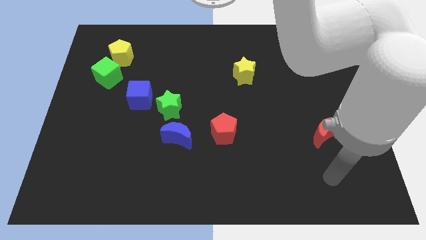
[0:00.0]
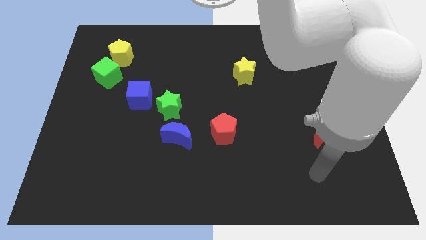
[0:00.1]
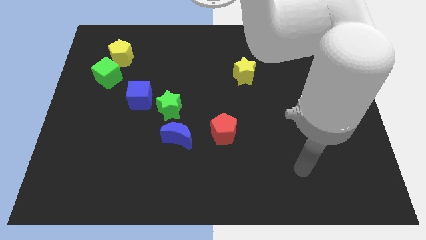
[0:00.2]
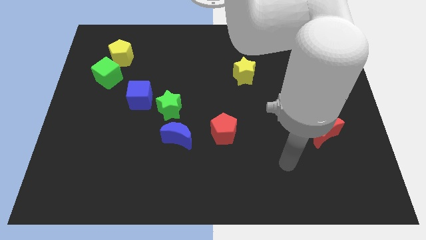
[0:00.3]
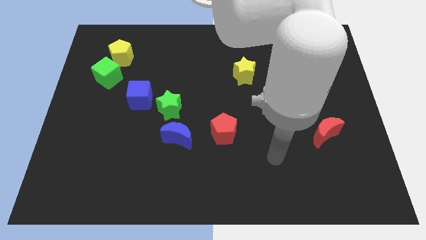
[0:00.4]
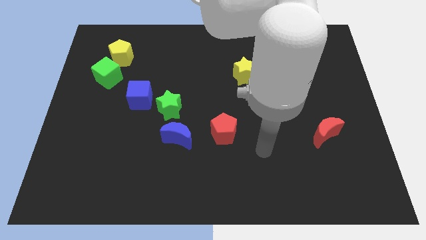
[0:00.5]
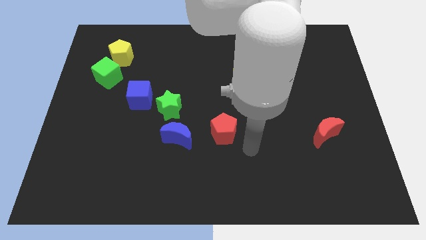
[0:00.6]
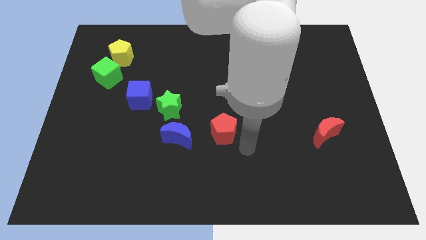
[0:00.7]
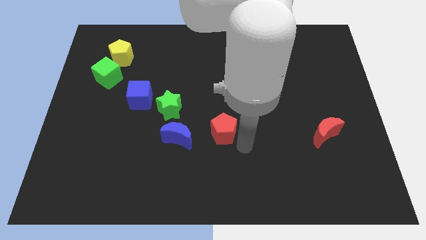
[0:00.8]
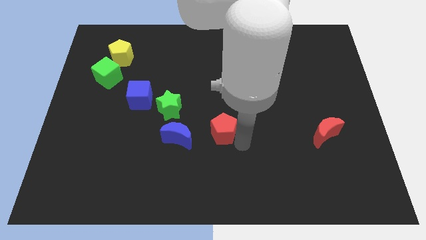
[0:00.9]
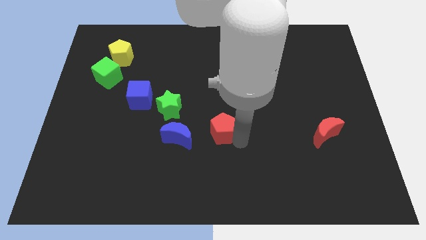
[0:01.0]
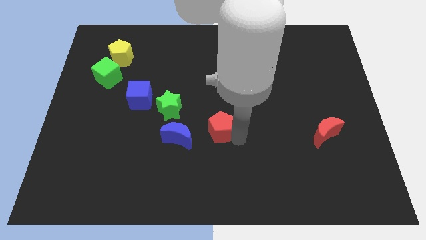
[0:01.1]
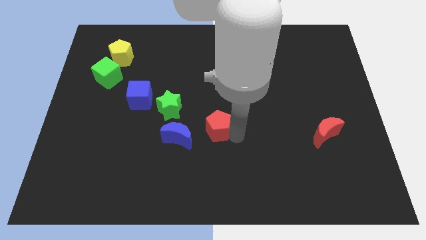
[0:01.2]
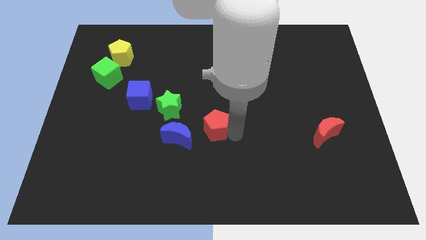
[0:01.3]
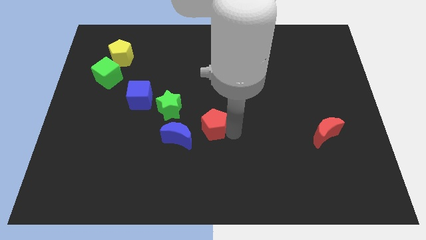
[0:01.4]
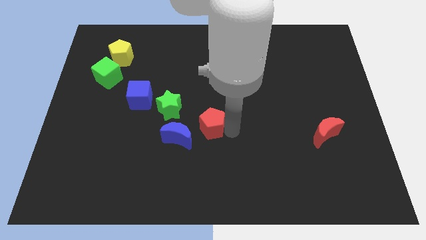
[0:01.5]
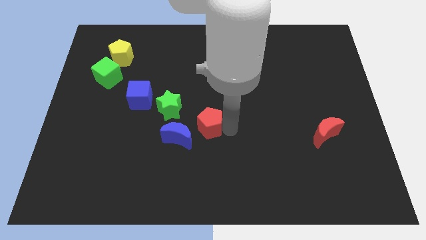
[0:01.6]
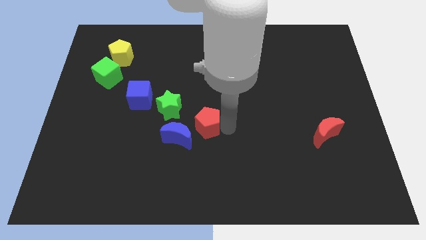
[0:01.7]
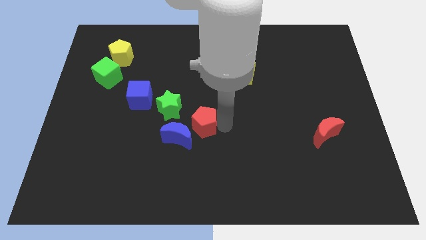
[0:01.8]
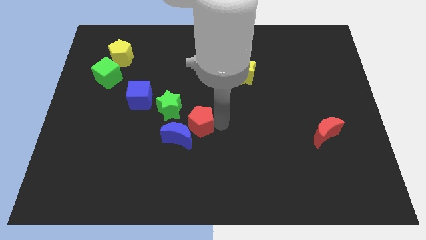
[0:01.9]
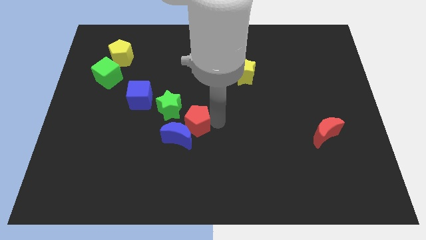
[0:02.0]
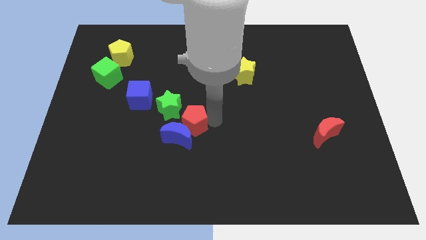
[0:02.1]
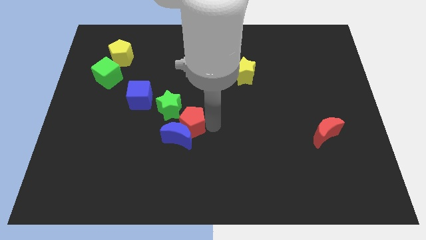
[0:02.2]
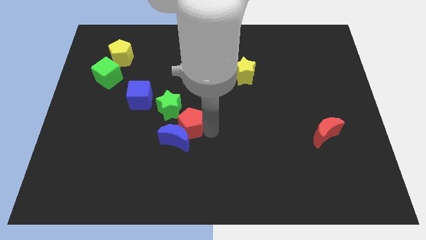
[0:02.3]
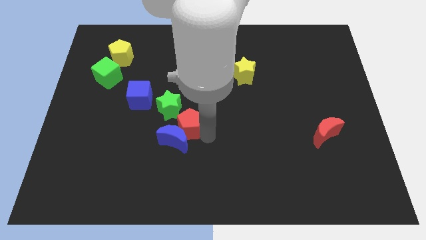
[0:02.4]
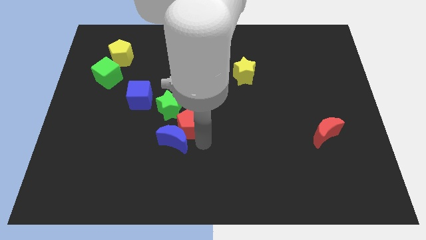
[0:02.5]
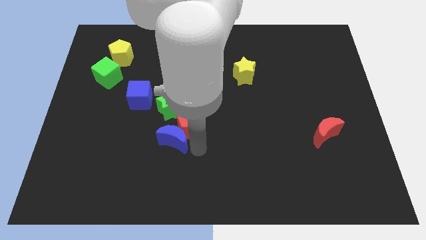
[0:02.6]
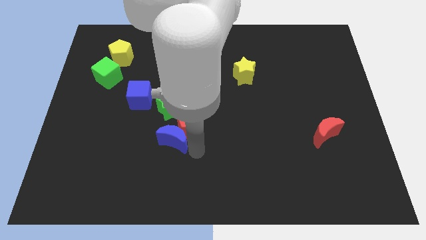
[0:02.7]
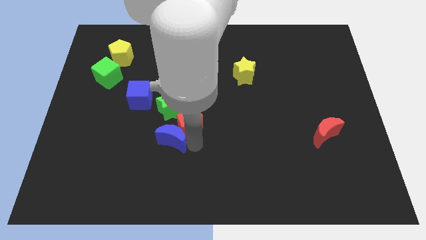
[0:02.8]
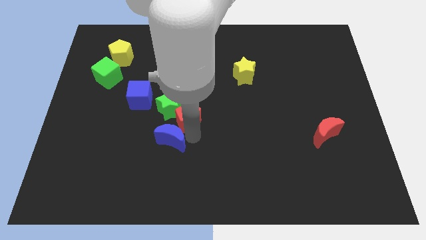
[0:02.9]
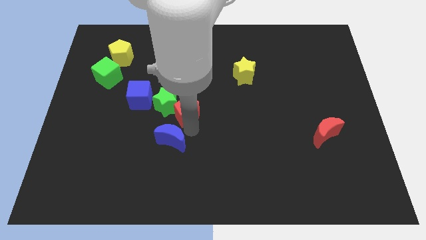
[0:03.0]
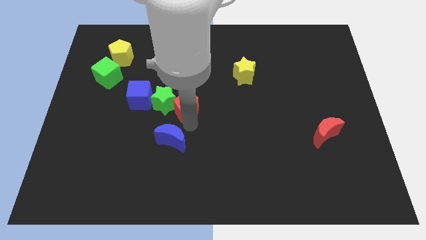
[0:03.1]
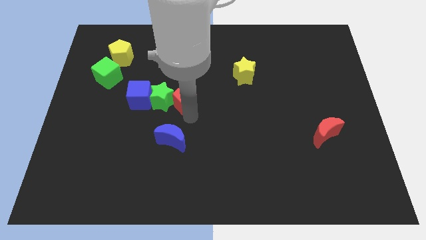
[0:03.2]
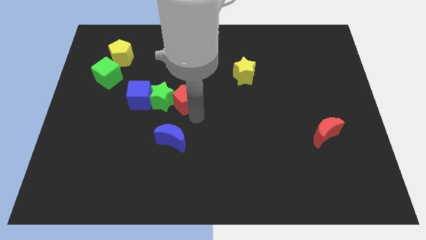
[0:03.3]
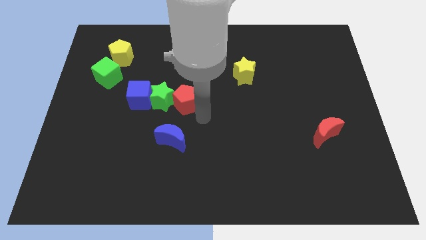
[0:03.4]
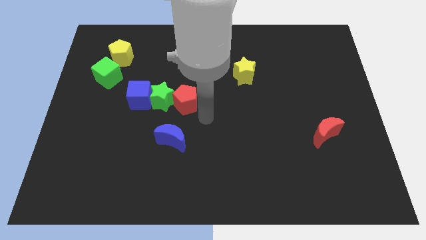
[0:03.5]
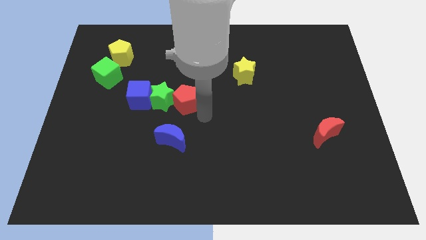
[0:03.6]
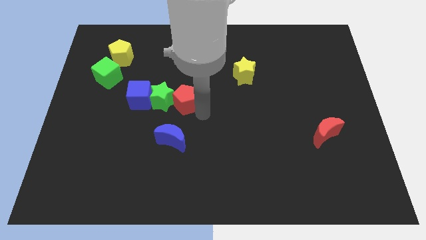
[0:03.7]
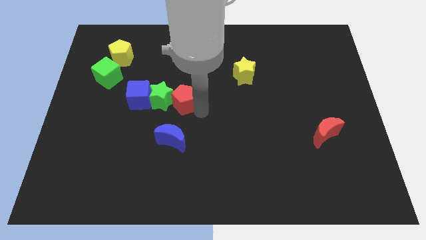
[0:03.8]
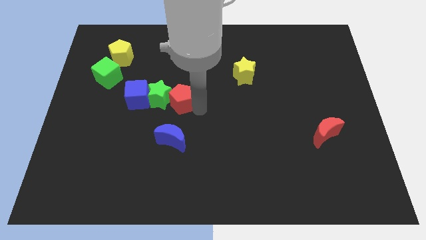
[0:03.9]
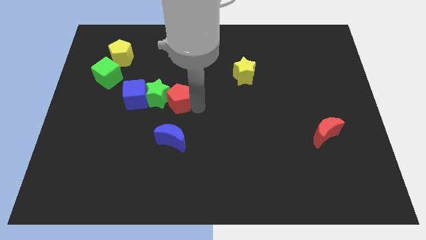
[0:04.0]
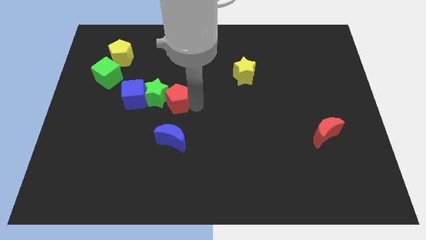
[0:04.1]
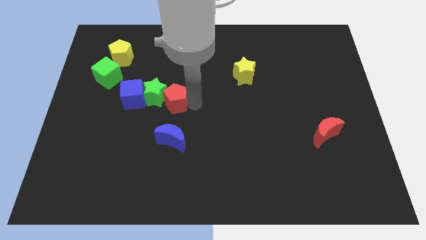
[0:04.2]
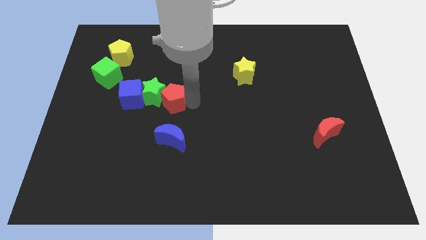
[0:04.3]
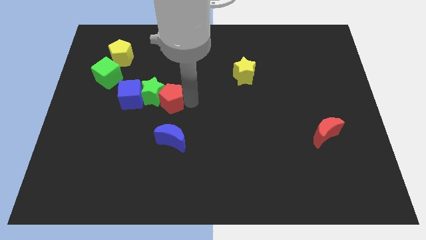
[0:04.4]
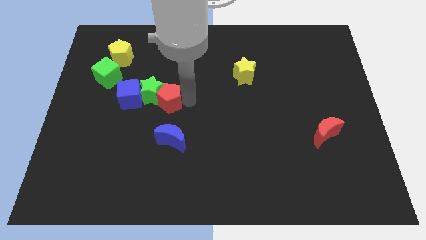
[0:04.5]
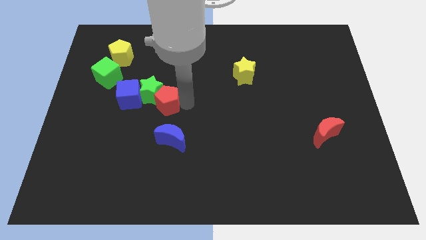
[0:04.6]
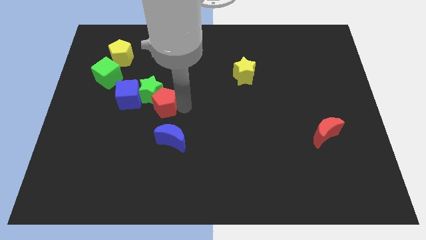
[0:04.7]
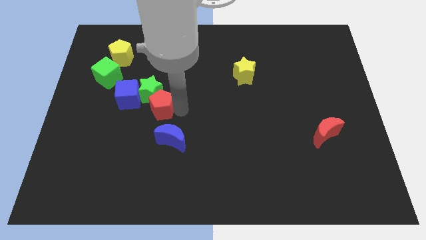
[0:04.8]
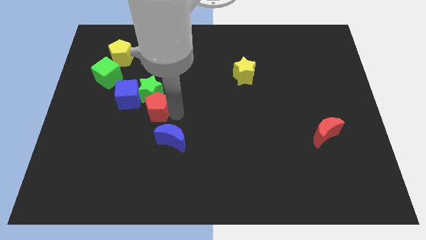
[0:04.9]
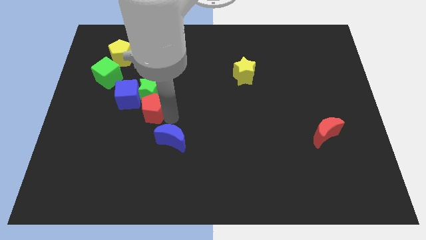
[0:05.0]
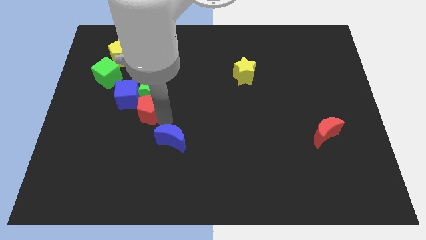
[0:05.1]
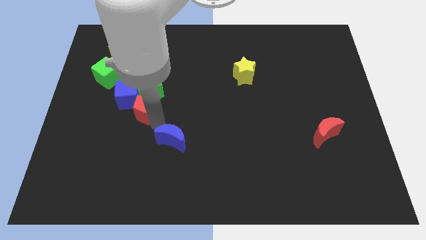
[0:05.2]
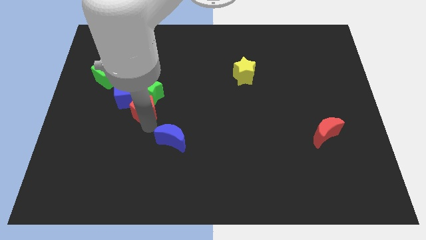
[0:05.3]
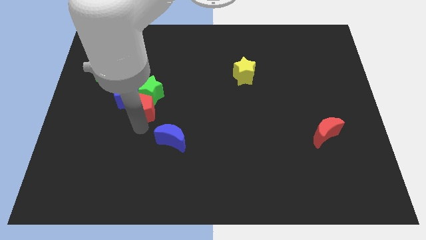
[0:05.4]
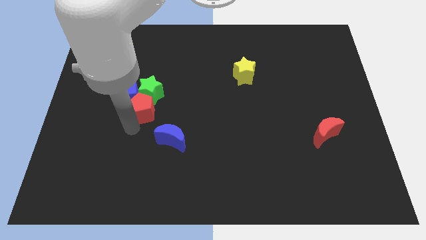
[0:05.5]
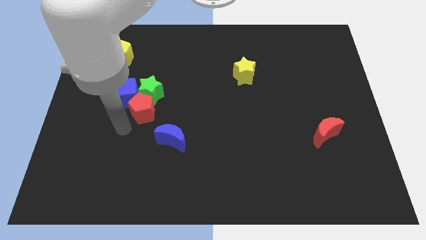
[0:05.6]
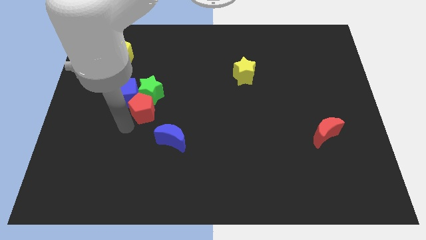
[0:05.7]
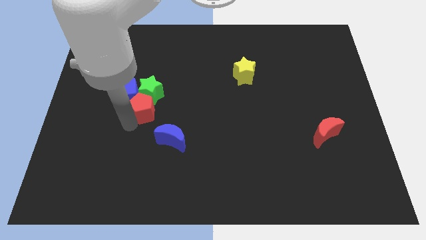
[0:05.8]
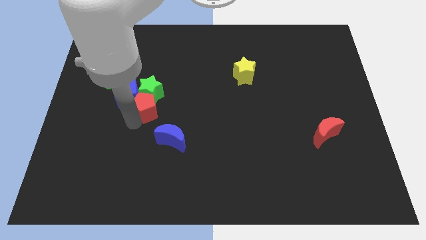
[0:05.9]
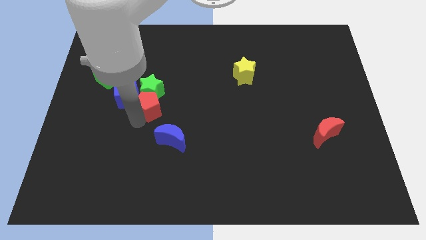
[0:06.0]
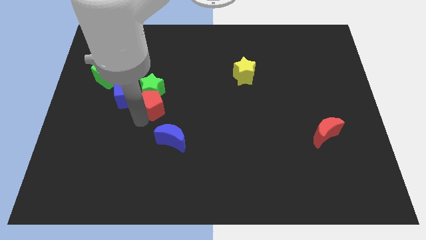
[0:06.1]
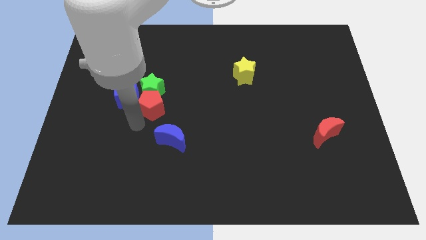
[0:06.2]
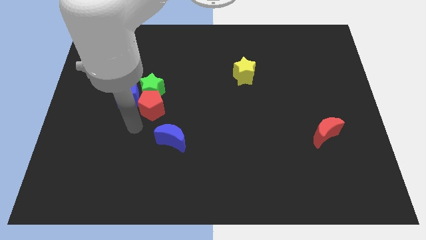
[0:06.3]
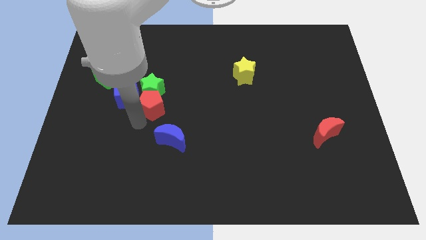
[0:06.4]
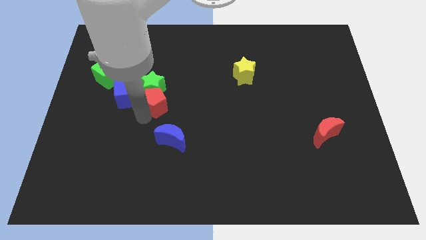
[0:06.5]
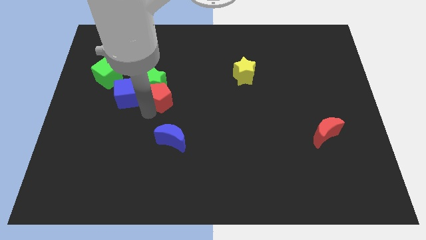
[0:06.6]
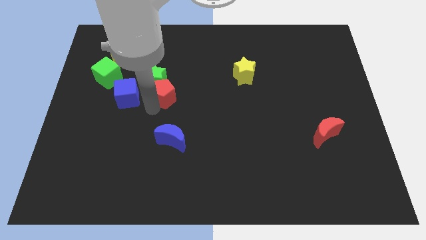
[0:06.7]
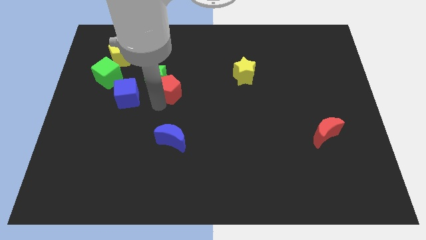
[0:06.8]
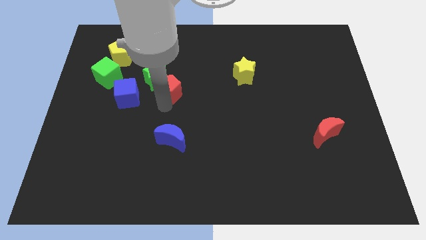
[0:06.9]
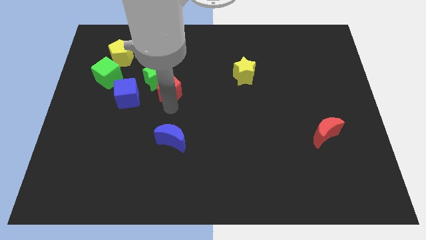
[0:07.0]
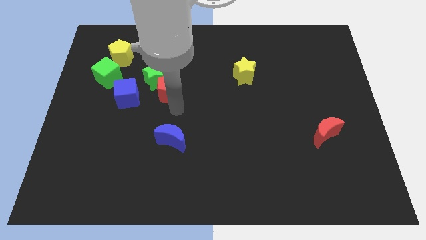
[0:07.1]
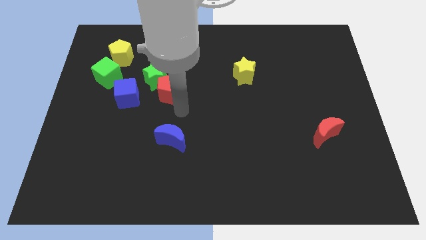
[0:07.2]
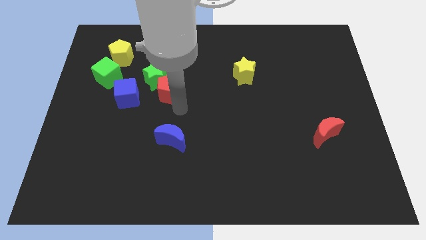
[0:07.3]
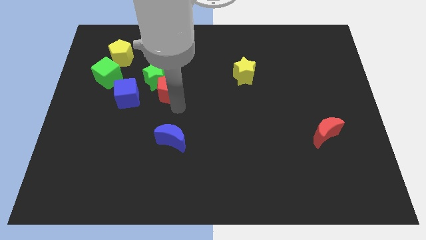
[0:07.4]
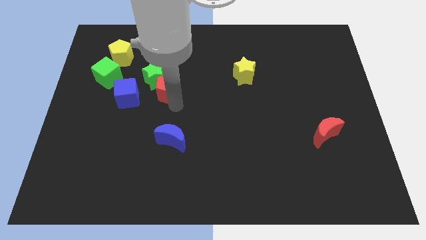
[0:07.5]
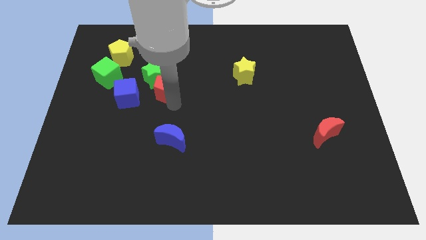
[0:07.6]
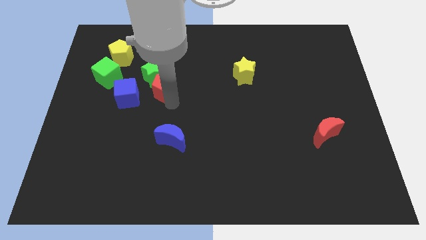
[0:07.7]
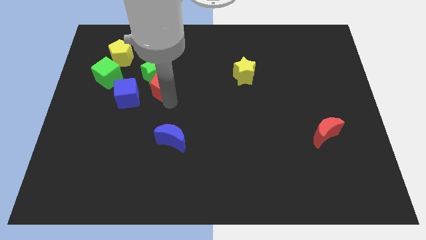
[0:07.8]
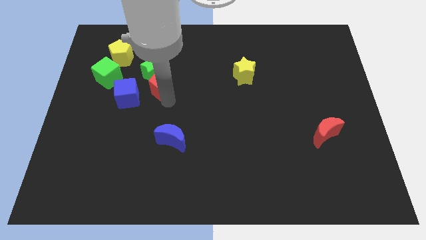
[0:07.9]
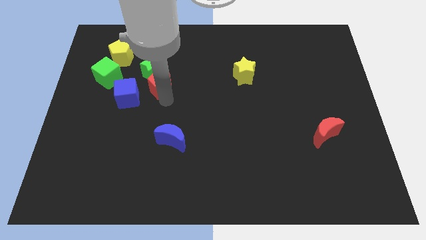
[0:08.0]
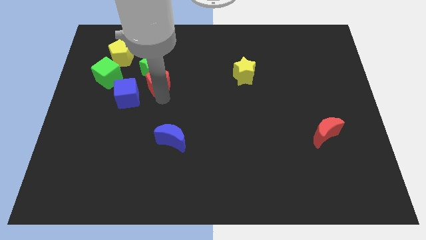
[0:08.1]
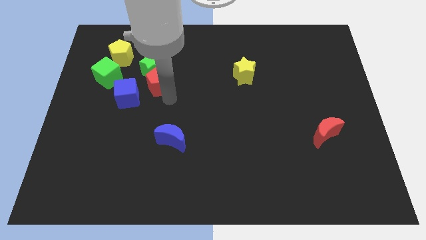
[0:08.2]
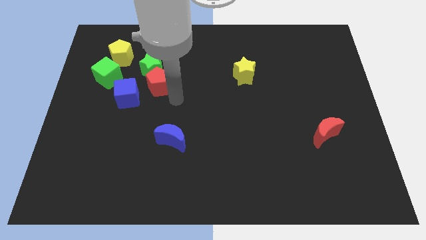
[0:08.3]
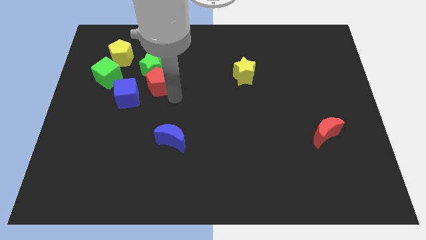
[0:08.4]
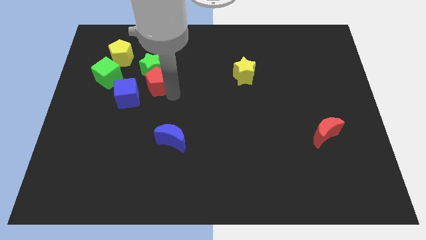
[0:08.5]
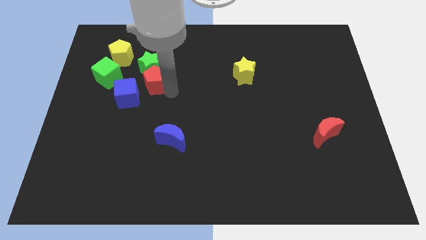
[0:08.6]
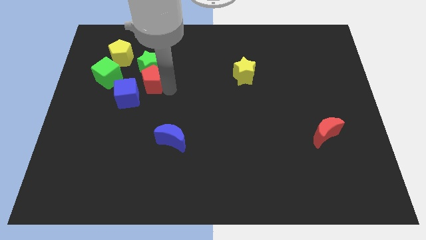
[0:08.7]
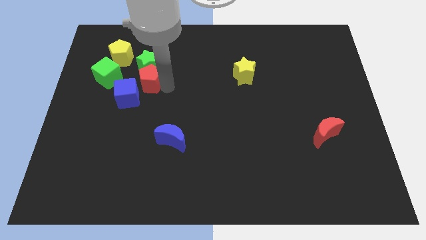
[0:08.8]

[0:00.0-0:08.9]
push the red pentagon to the top side of the blue cube
